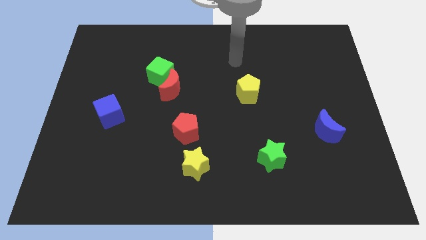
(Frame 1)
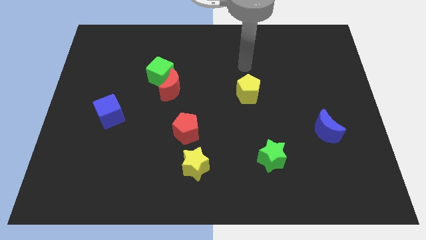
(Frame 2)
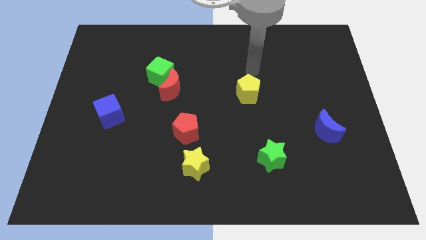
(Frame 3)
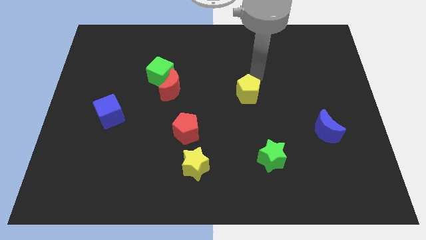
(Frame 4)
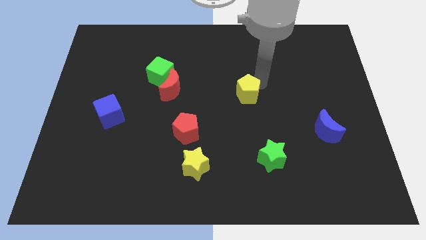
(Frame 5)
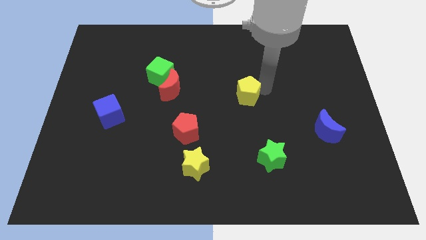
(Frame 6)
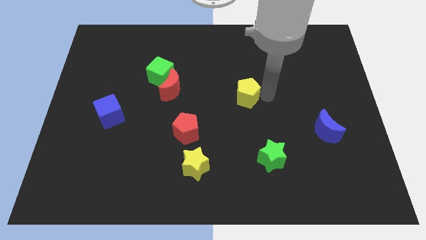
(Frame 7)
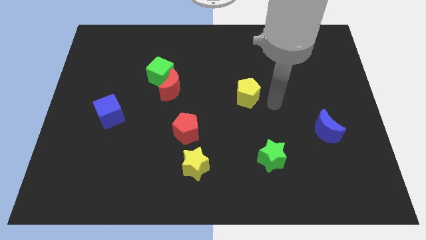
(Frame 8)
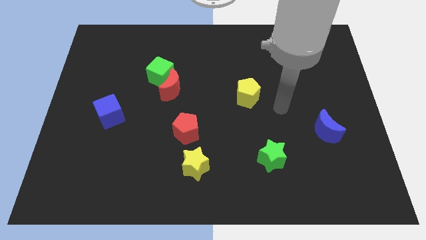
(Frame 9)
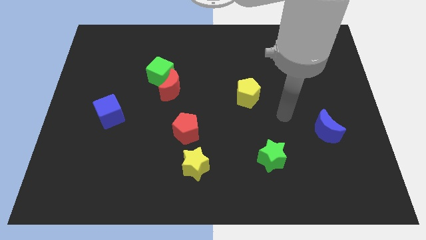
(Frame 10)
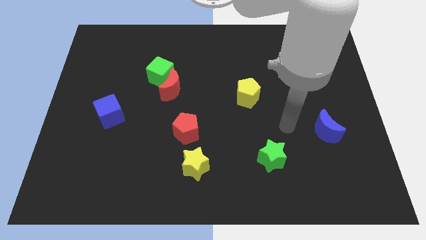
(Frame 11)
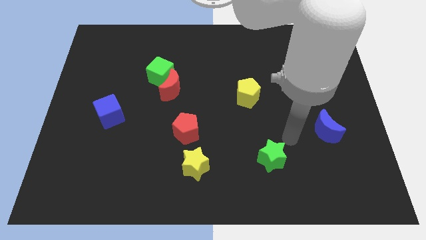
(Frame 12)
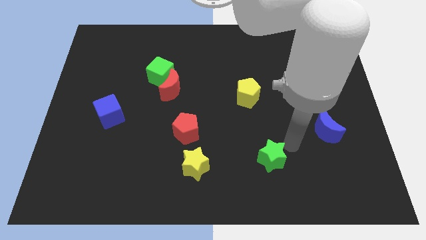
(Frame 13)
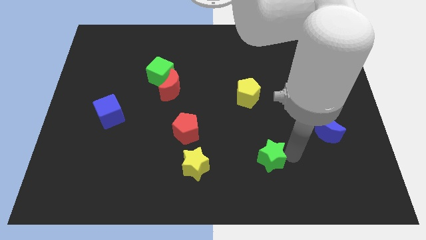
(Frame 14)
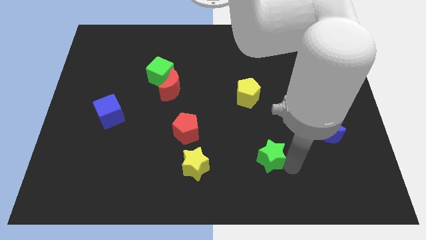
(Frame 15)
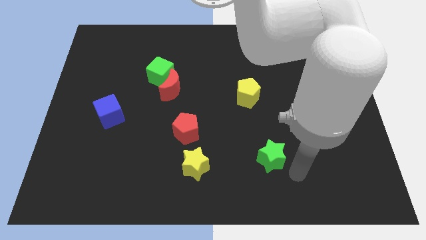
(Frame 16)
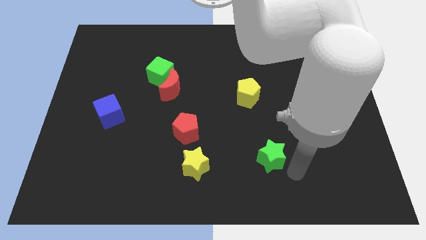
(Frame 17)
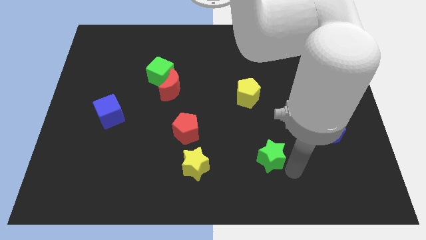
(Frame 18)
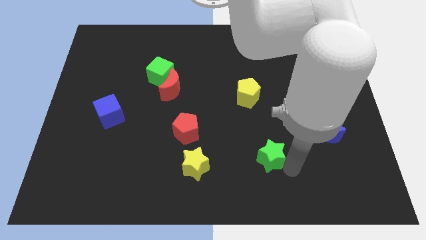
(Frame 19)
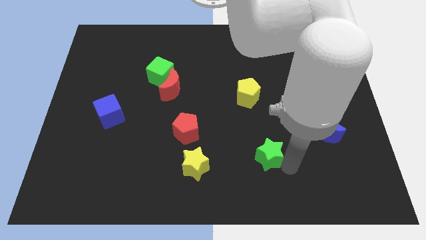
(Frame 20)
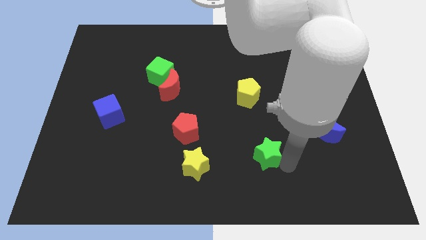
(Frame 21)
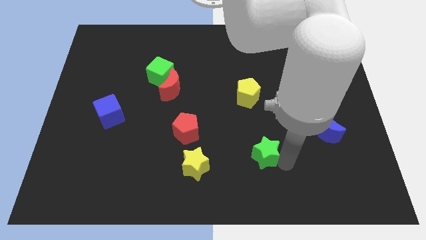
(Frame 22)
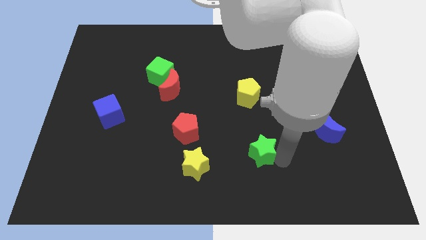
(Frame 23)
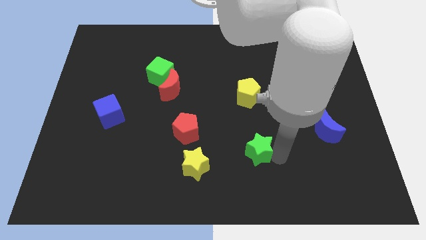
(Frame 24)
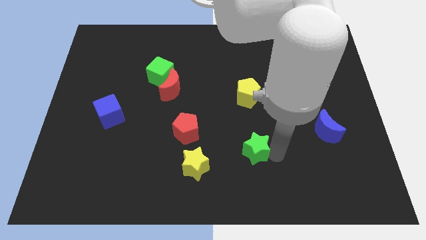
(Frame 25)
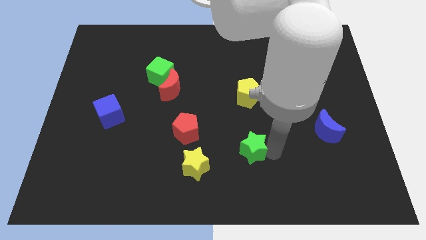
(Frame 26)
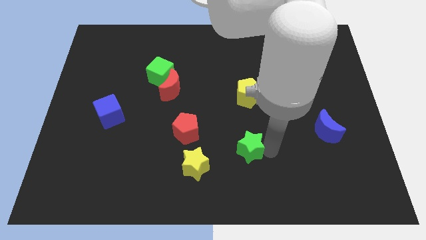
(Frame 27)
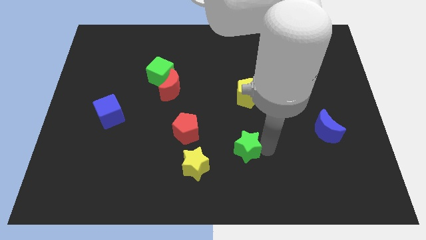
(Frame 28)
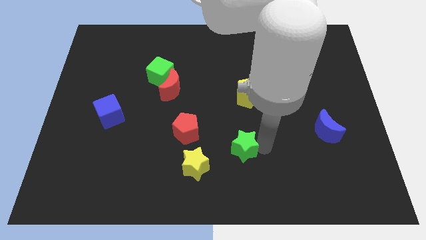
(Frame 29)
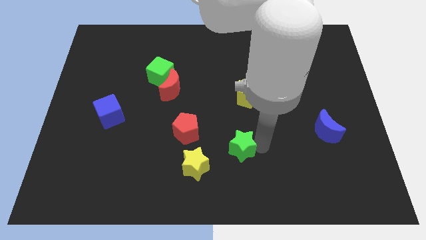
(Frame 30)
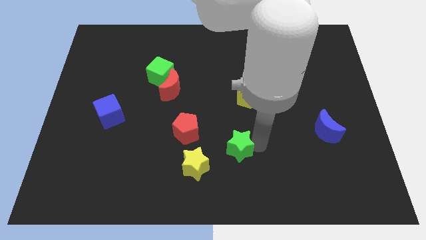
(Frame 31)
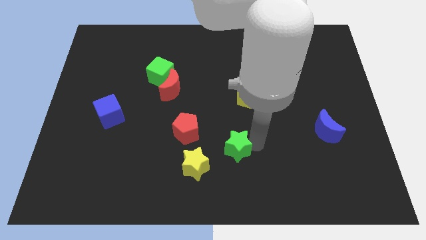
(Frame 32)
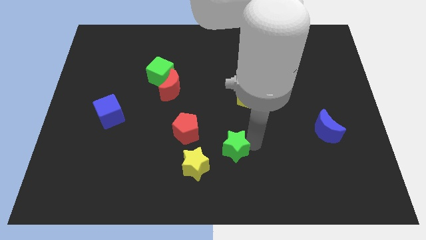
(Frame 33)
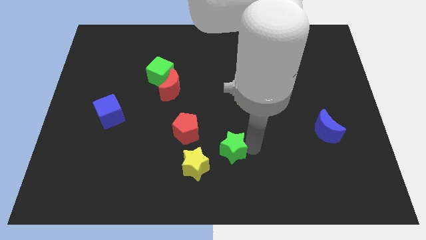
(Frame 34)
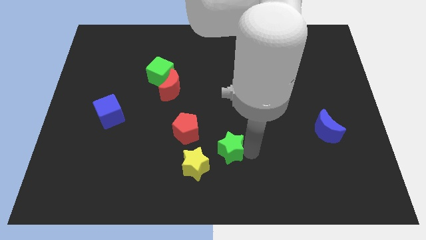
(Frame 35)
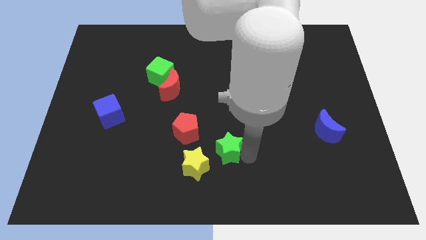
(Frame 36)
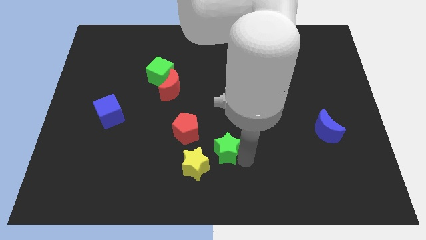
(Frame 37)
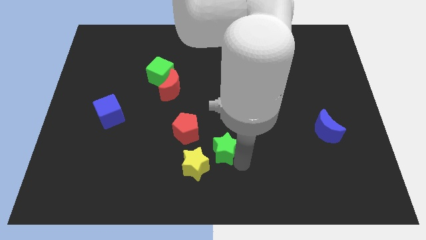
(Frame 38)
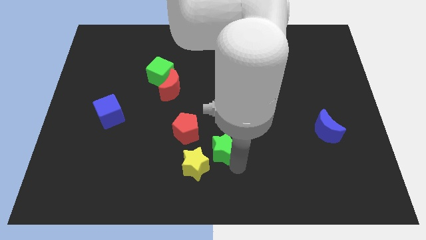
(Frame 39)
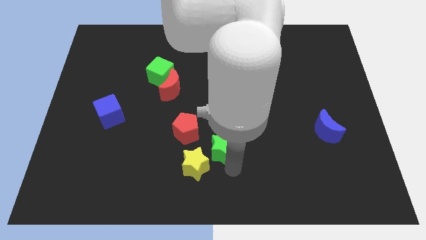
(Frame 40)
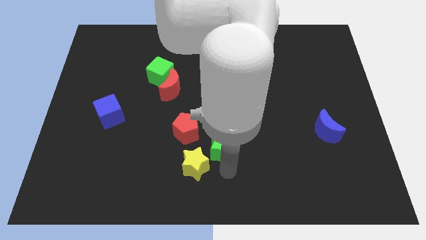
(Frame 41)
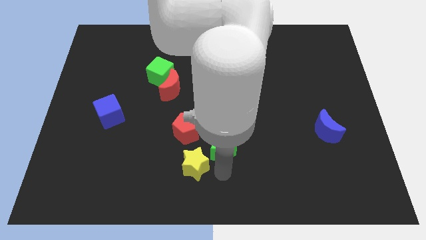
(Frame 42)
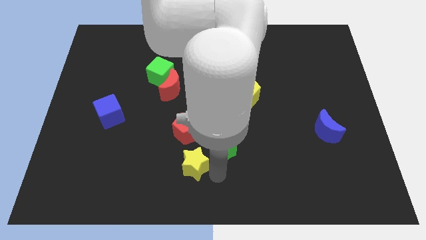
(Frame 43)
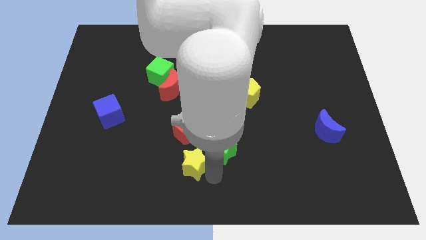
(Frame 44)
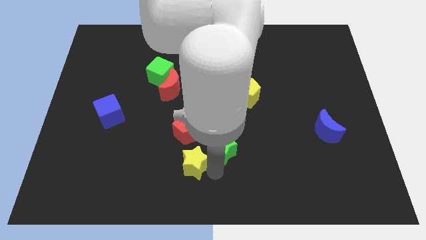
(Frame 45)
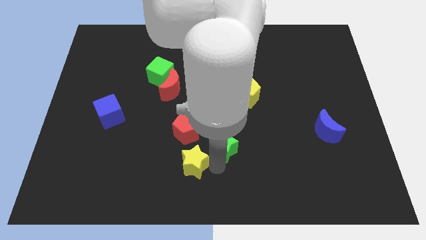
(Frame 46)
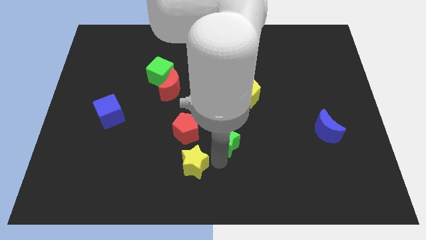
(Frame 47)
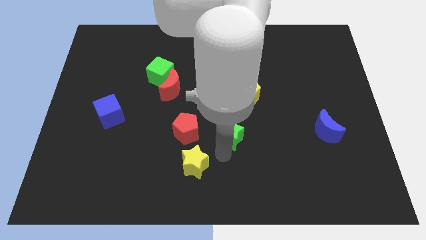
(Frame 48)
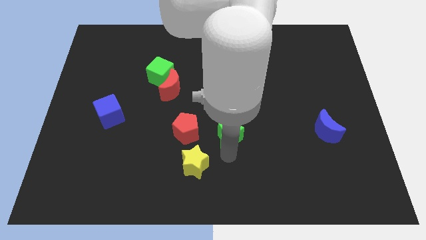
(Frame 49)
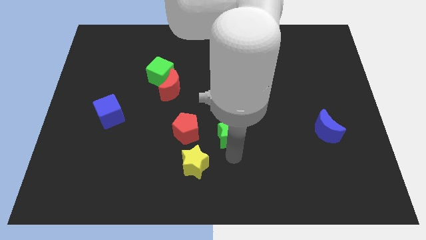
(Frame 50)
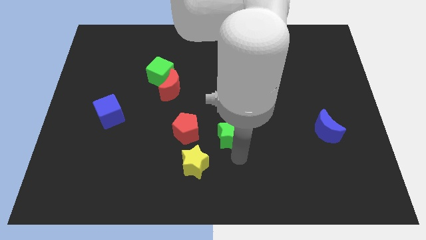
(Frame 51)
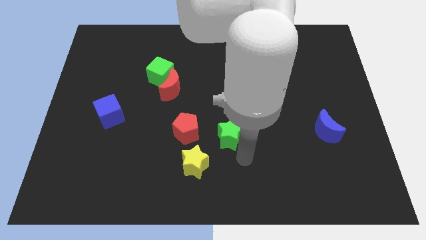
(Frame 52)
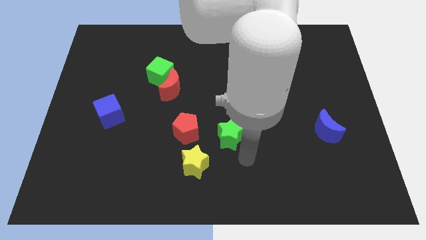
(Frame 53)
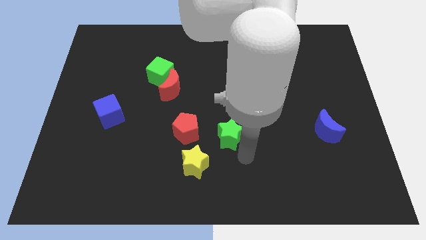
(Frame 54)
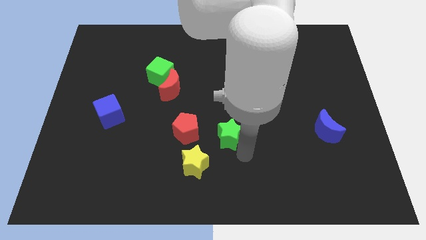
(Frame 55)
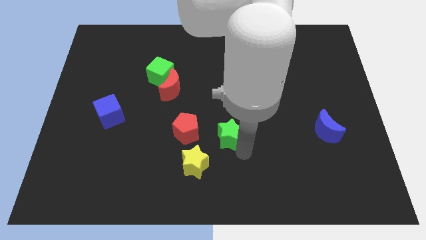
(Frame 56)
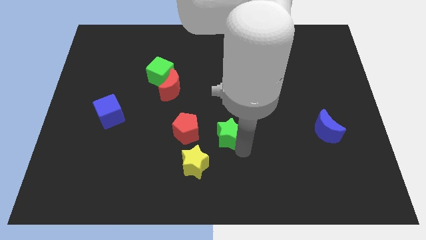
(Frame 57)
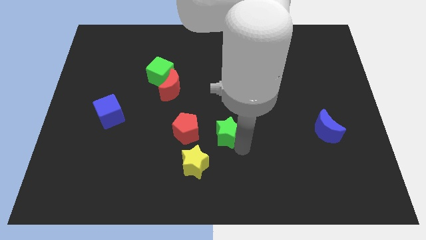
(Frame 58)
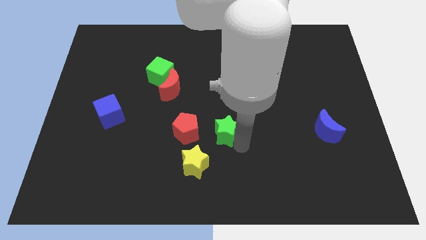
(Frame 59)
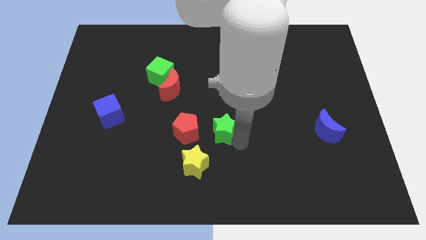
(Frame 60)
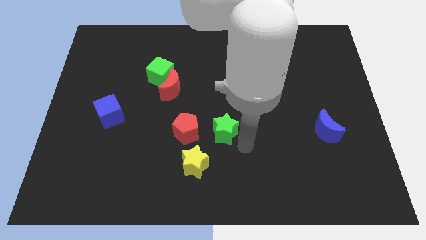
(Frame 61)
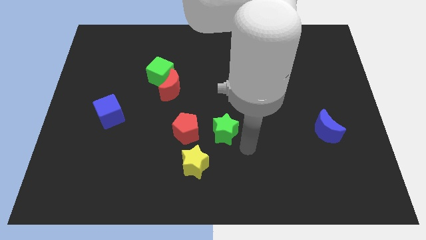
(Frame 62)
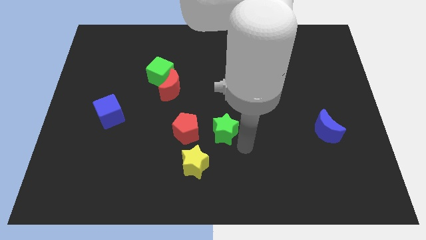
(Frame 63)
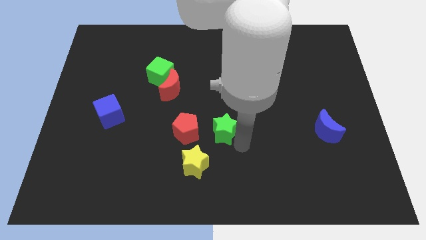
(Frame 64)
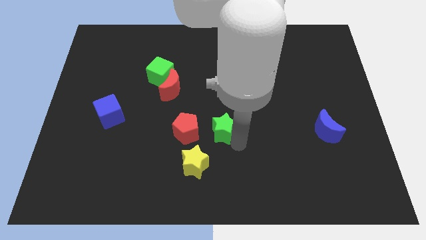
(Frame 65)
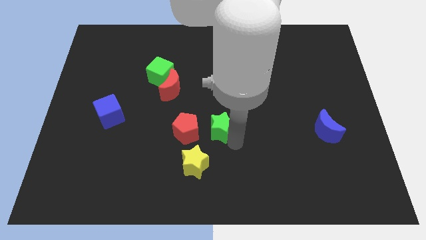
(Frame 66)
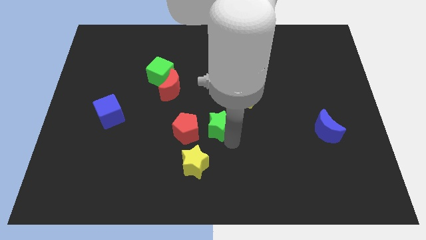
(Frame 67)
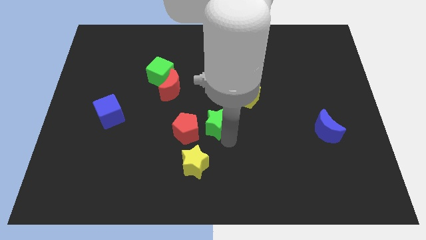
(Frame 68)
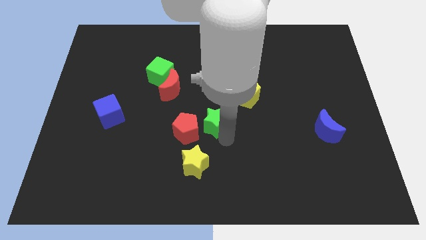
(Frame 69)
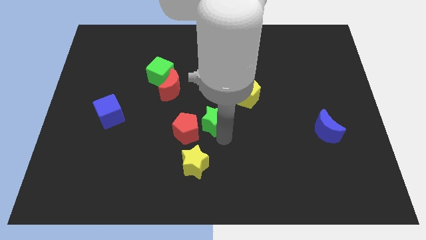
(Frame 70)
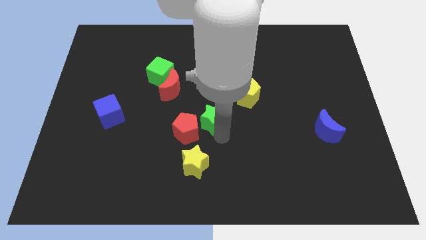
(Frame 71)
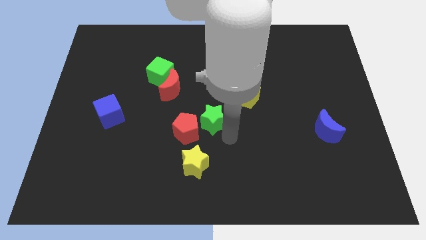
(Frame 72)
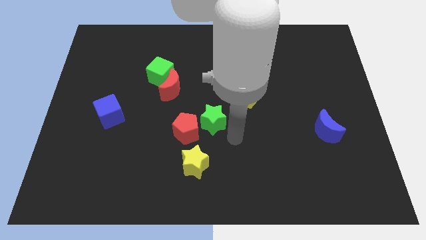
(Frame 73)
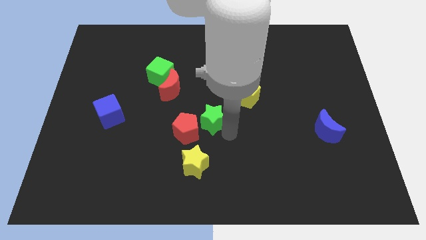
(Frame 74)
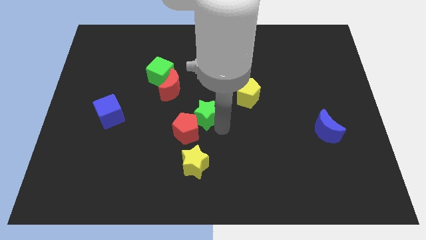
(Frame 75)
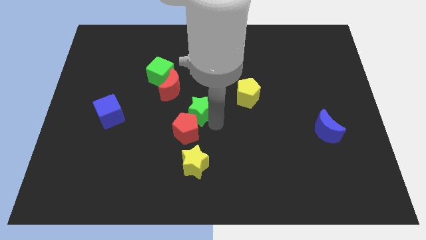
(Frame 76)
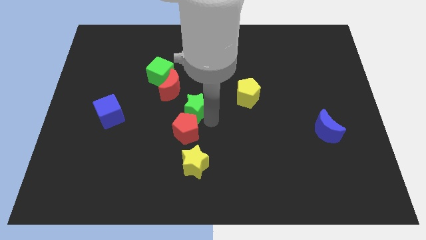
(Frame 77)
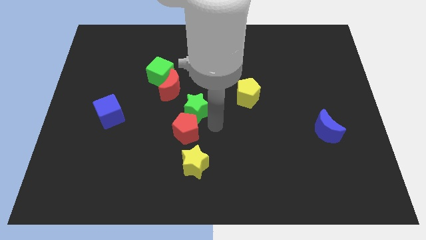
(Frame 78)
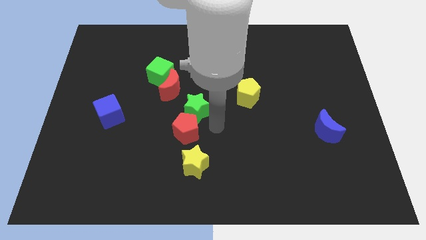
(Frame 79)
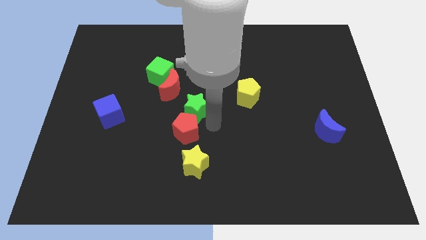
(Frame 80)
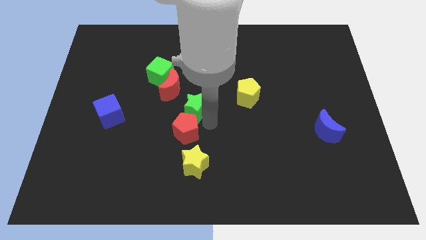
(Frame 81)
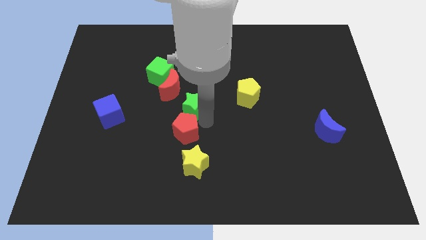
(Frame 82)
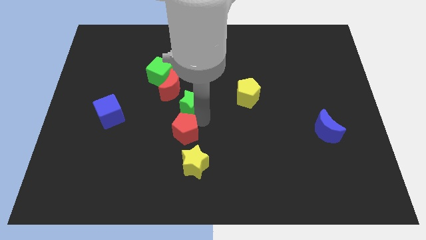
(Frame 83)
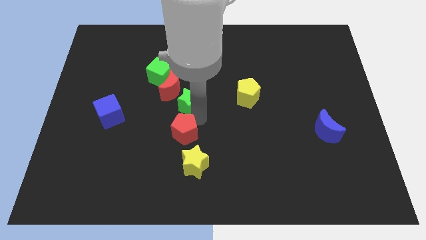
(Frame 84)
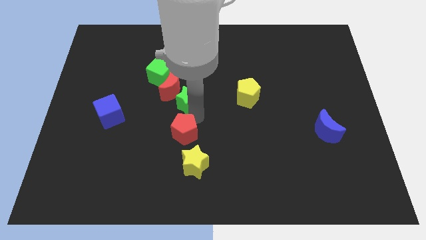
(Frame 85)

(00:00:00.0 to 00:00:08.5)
move the green star towards the red moon
